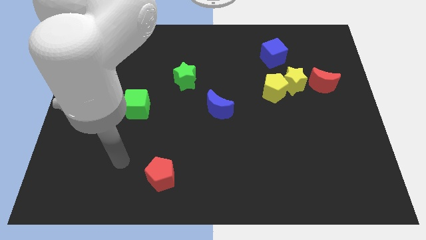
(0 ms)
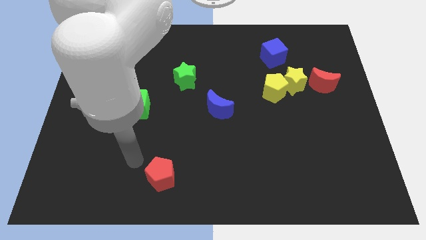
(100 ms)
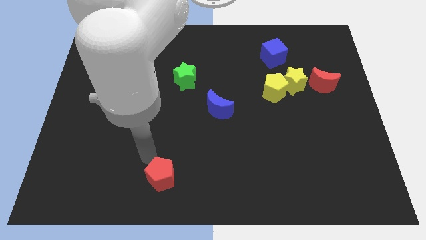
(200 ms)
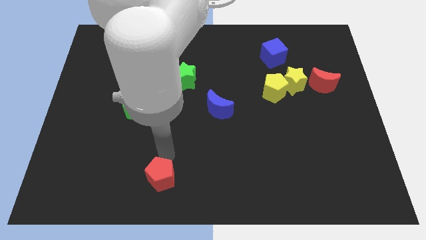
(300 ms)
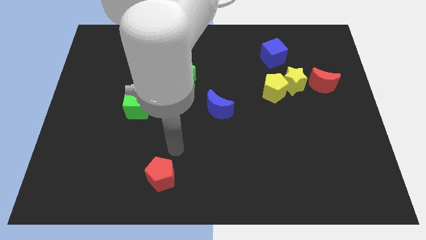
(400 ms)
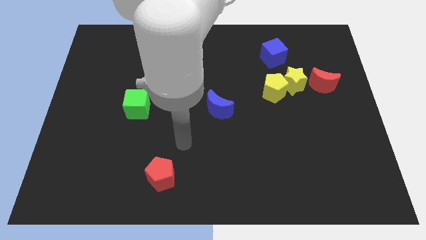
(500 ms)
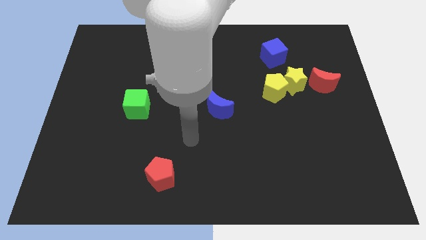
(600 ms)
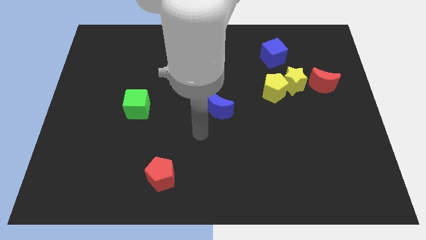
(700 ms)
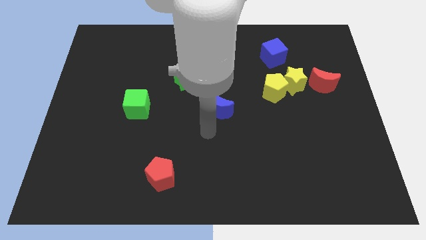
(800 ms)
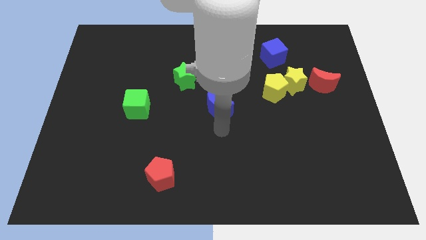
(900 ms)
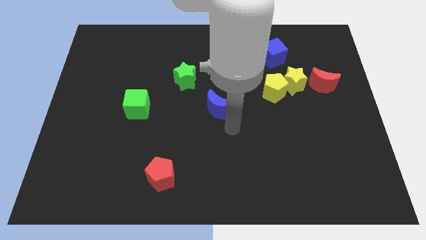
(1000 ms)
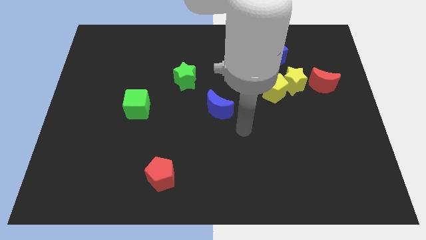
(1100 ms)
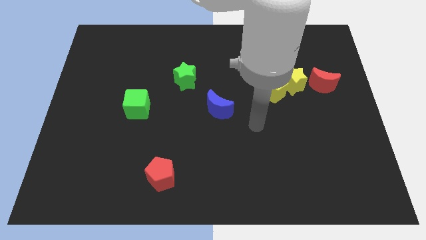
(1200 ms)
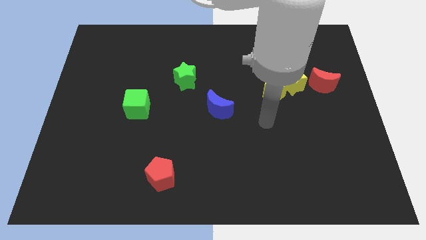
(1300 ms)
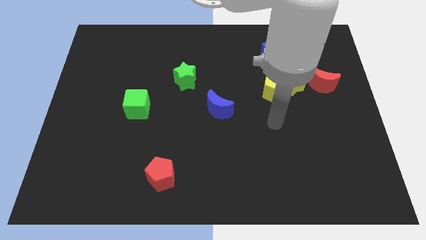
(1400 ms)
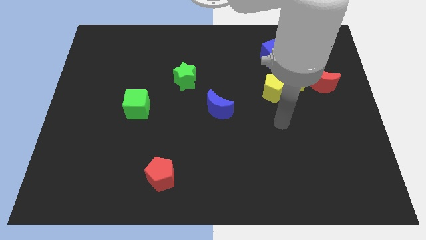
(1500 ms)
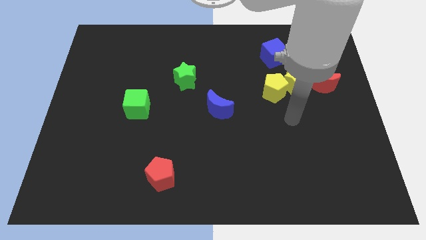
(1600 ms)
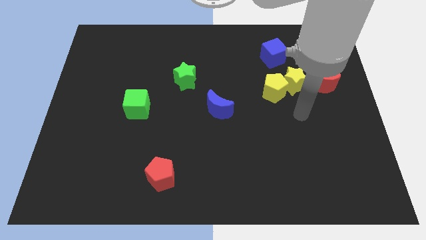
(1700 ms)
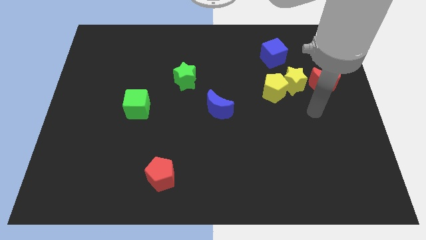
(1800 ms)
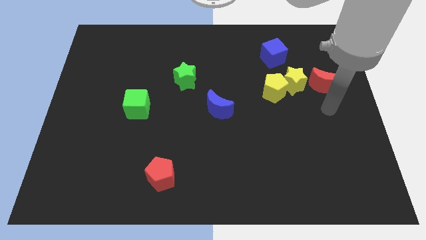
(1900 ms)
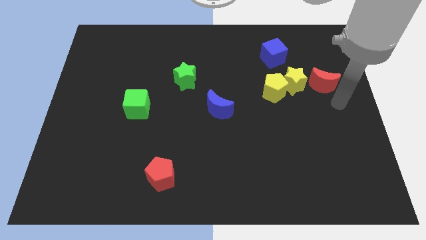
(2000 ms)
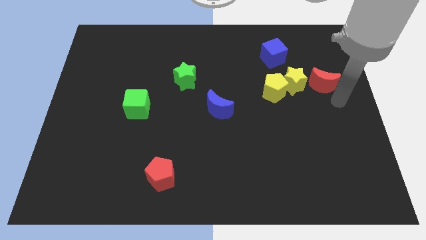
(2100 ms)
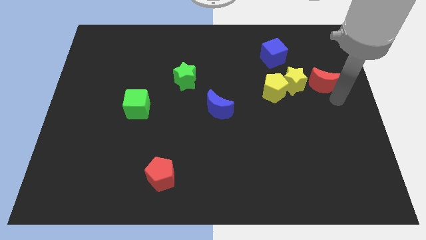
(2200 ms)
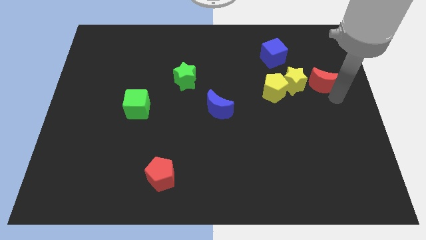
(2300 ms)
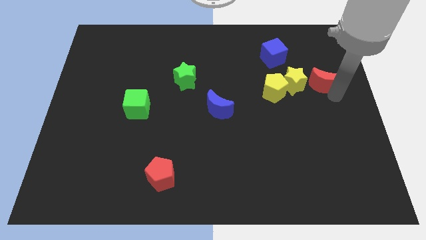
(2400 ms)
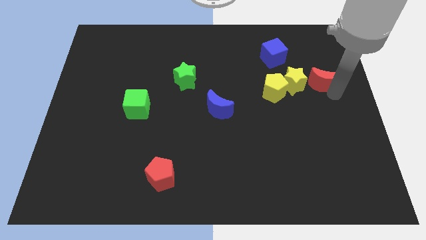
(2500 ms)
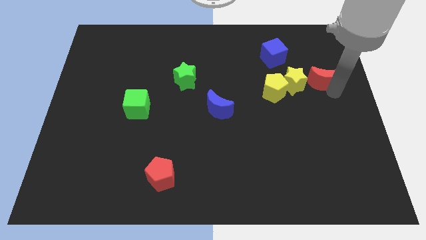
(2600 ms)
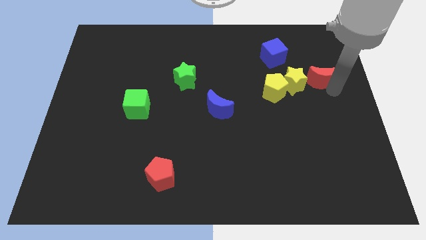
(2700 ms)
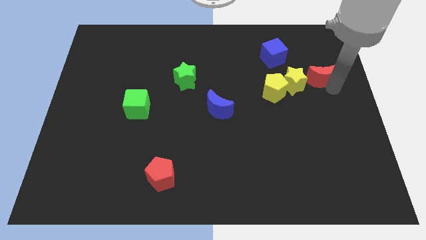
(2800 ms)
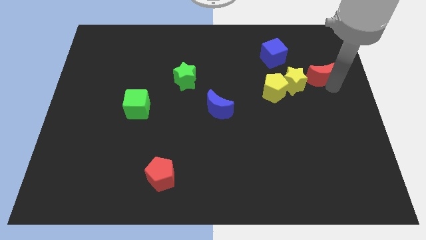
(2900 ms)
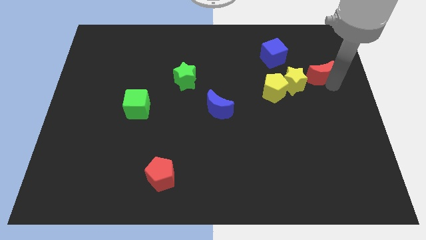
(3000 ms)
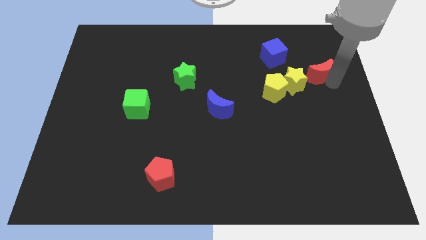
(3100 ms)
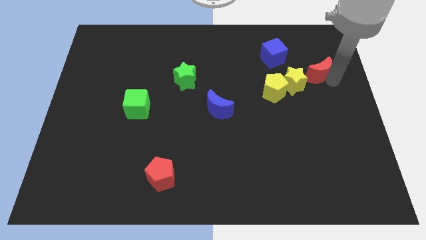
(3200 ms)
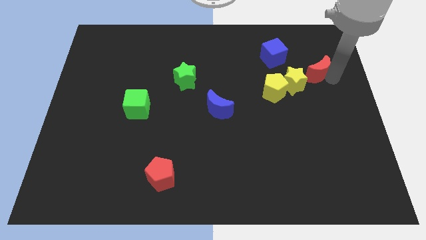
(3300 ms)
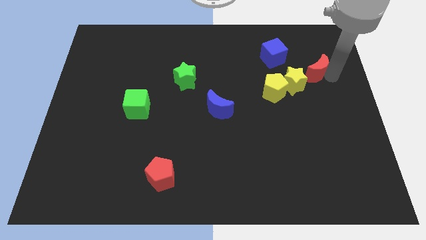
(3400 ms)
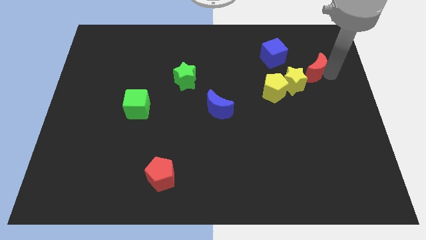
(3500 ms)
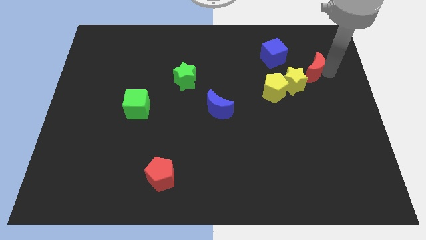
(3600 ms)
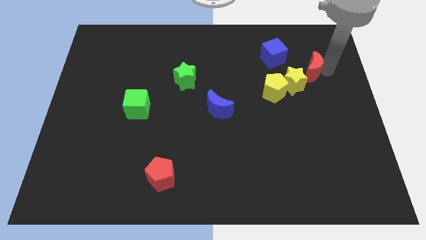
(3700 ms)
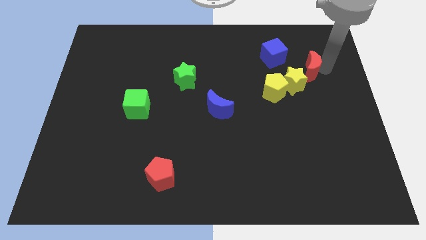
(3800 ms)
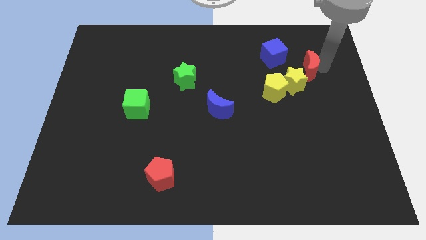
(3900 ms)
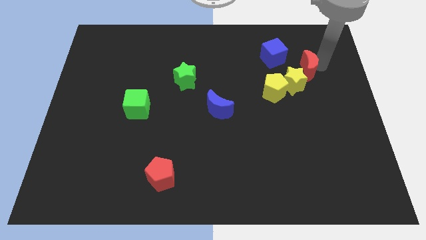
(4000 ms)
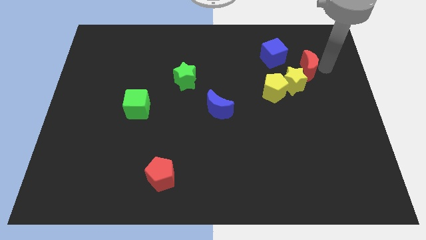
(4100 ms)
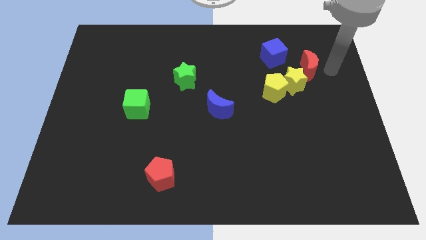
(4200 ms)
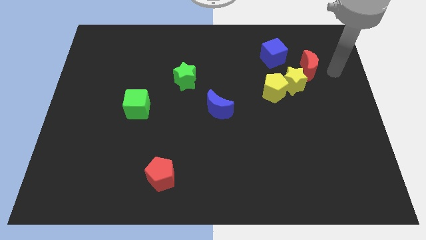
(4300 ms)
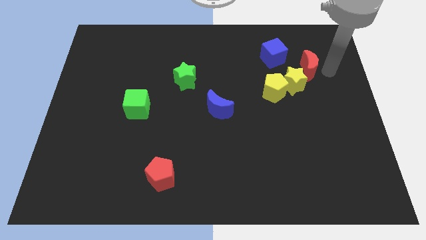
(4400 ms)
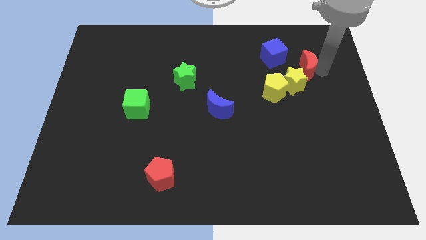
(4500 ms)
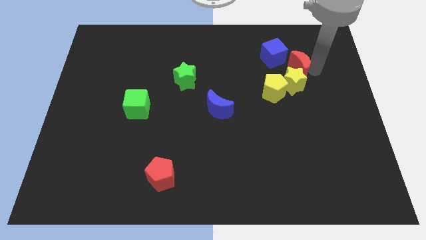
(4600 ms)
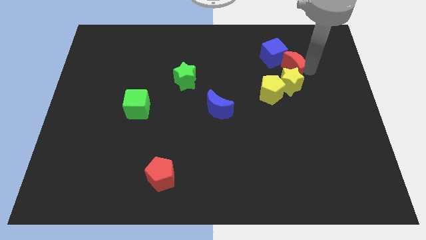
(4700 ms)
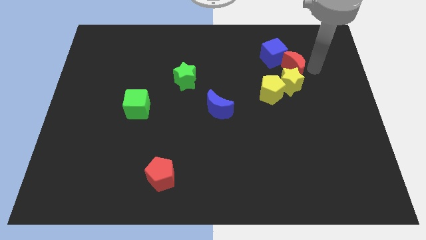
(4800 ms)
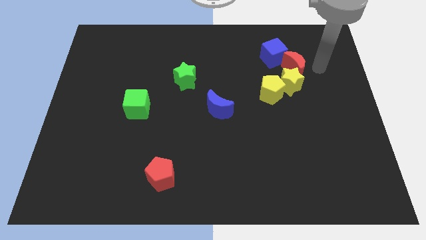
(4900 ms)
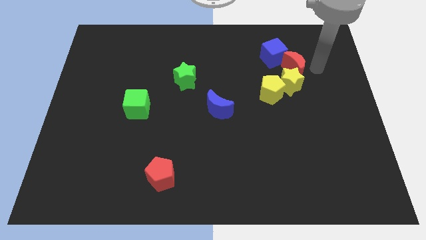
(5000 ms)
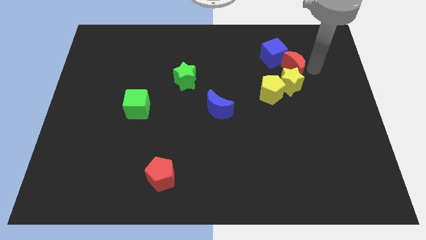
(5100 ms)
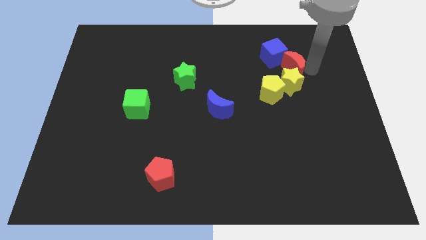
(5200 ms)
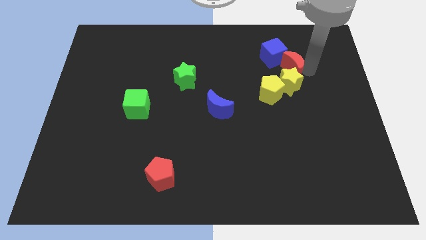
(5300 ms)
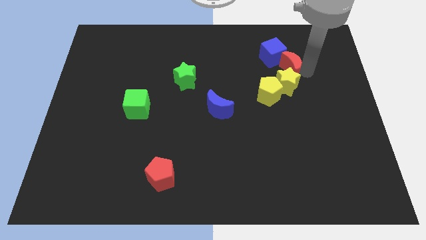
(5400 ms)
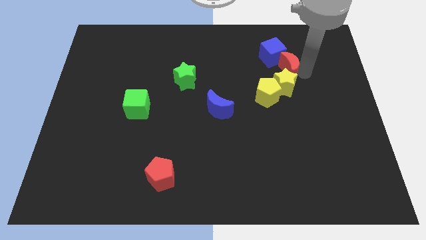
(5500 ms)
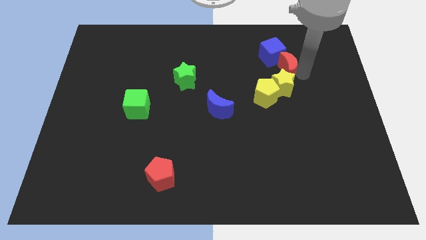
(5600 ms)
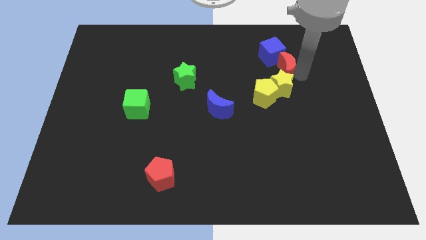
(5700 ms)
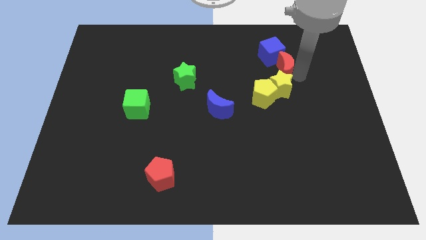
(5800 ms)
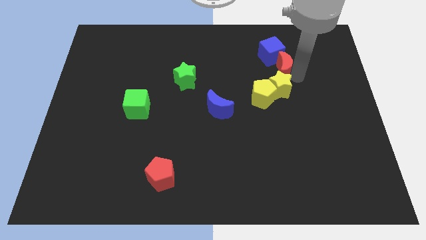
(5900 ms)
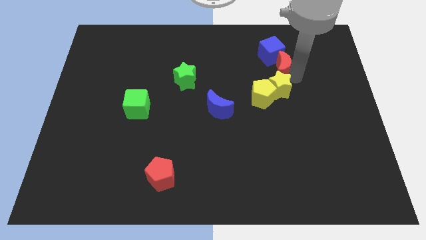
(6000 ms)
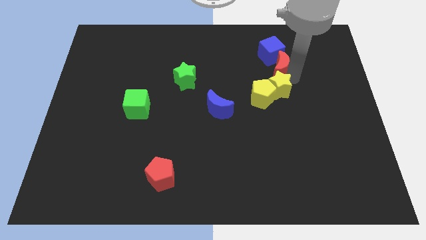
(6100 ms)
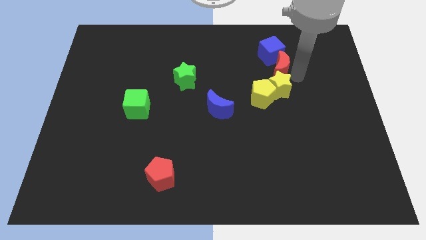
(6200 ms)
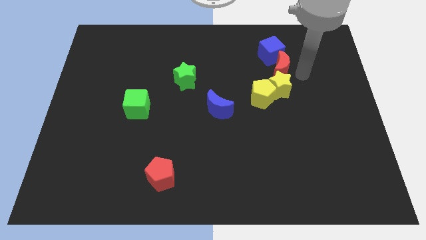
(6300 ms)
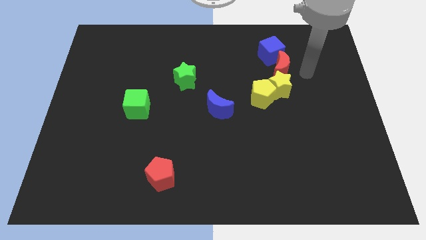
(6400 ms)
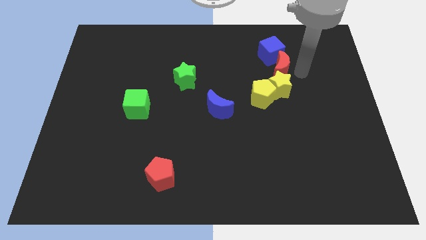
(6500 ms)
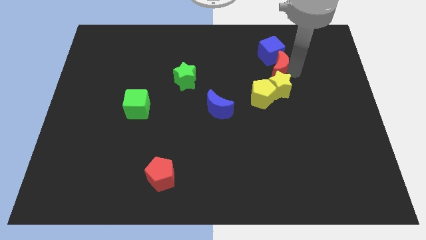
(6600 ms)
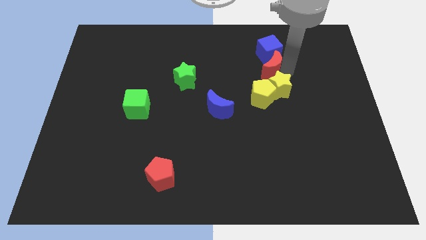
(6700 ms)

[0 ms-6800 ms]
slide the red moon diagonally down and to the left of the blue cube

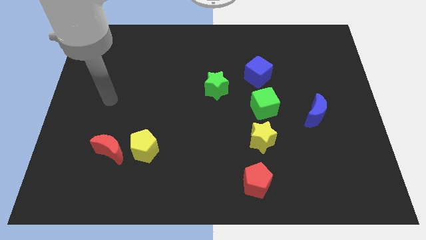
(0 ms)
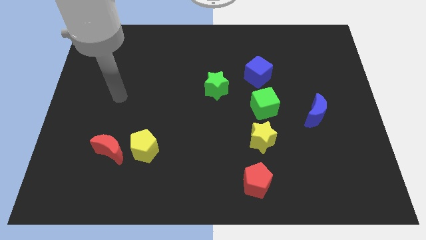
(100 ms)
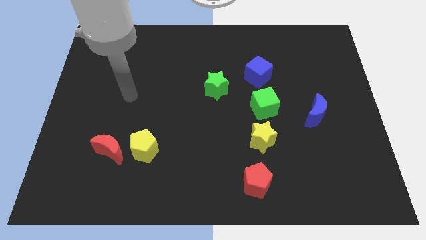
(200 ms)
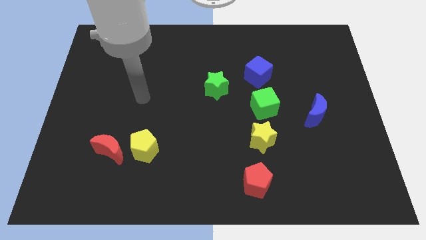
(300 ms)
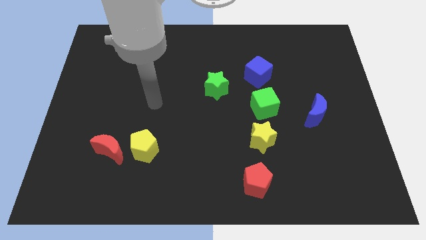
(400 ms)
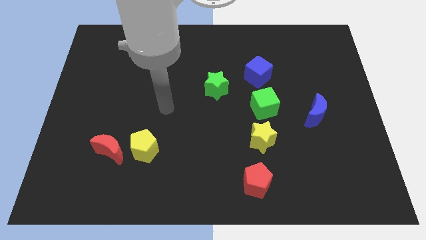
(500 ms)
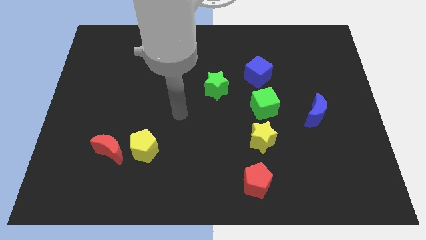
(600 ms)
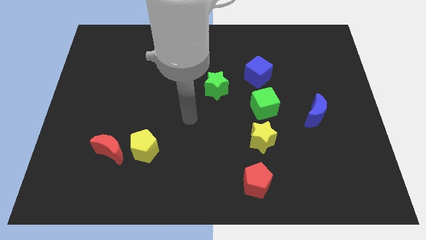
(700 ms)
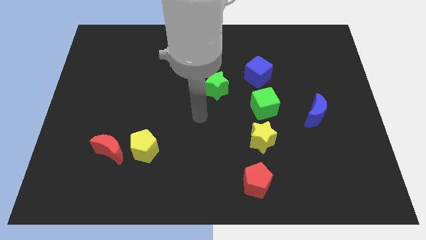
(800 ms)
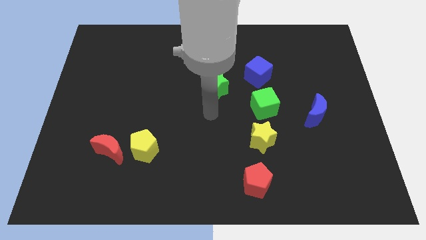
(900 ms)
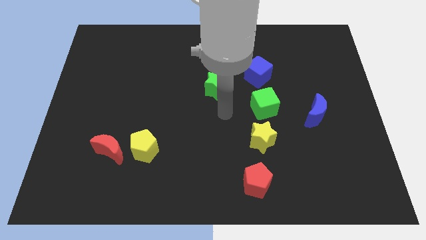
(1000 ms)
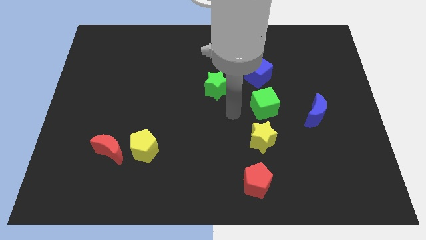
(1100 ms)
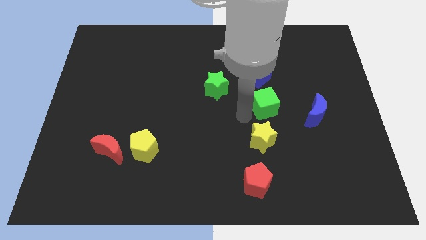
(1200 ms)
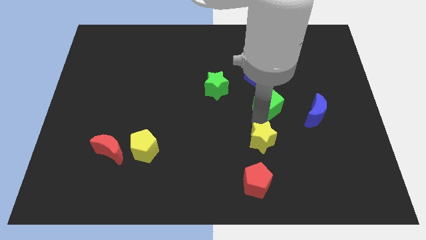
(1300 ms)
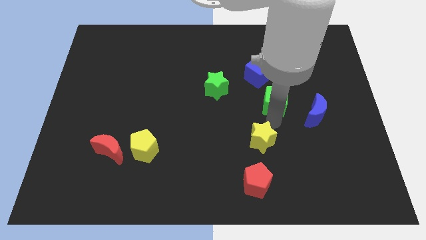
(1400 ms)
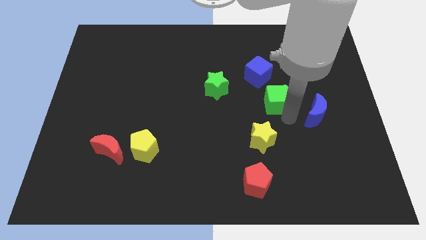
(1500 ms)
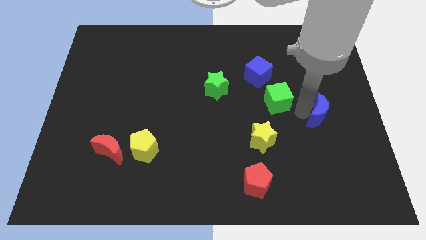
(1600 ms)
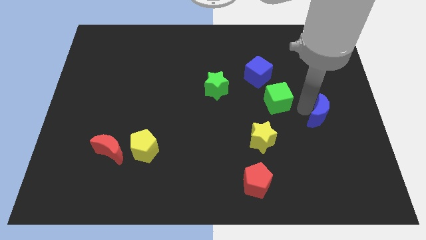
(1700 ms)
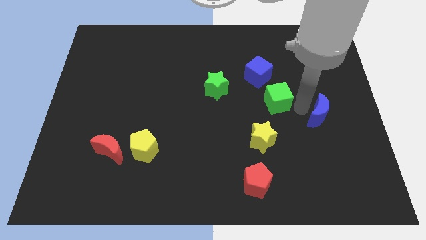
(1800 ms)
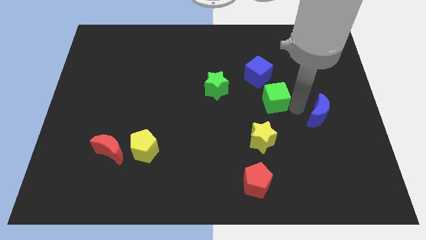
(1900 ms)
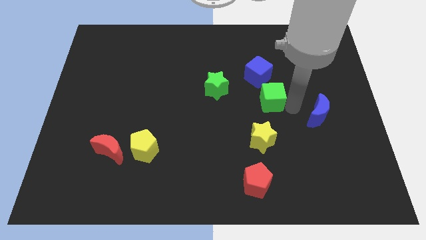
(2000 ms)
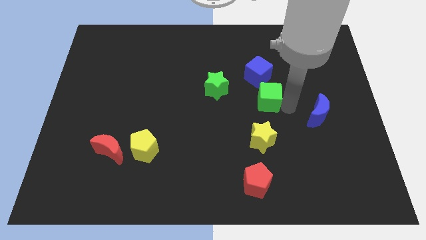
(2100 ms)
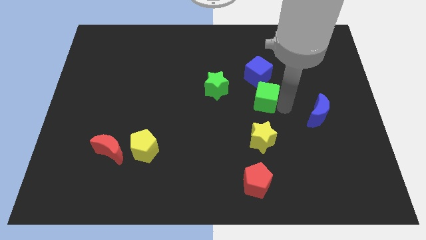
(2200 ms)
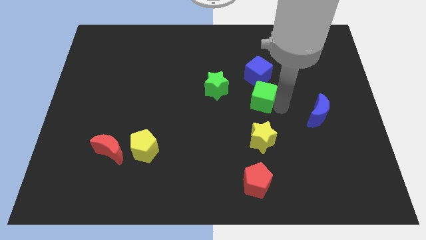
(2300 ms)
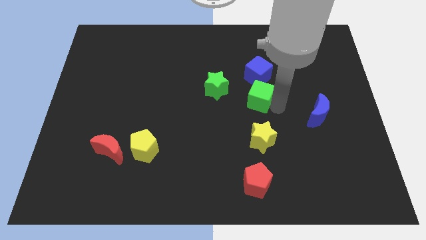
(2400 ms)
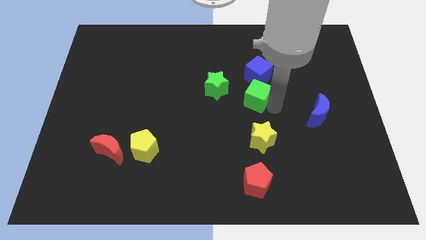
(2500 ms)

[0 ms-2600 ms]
put the green cube to the bottom left side of the blue cube
